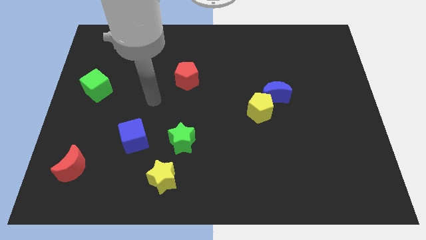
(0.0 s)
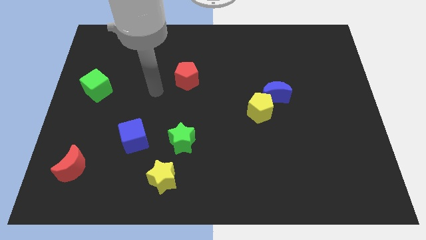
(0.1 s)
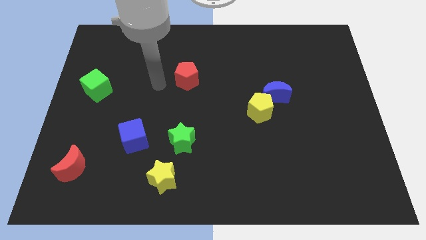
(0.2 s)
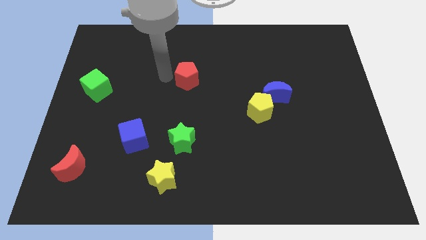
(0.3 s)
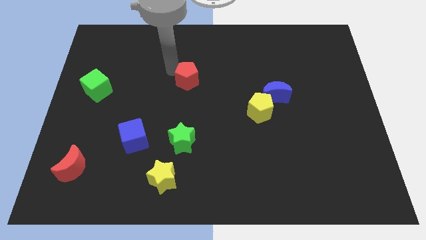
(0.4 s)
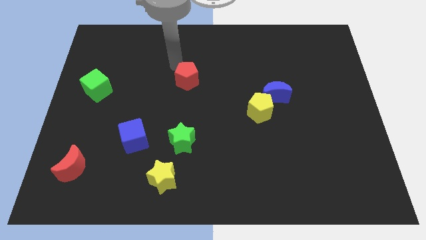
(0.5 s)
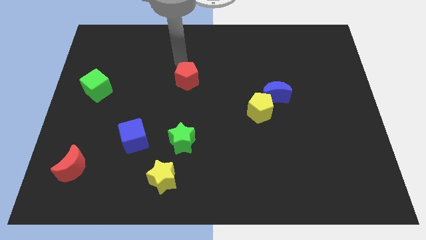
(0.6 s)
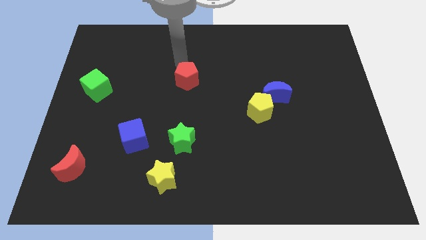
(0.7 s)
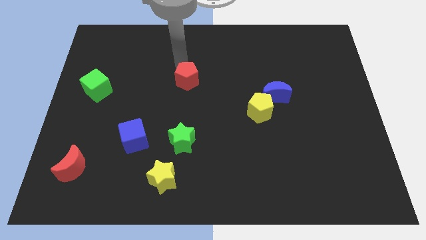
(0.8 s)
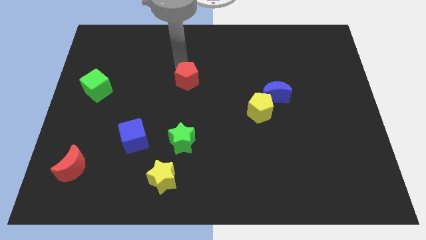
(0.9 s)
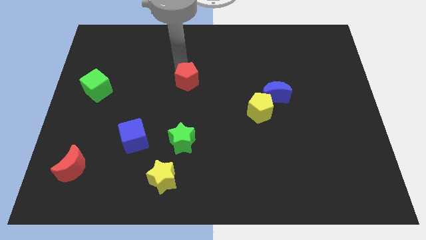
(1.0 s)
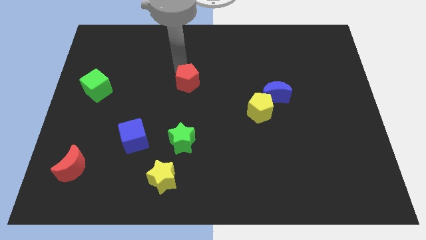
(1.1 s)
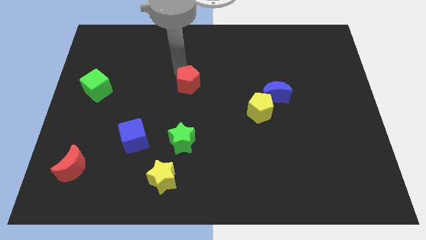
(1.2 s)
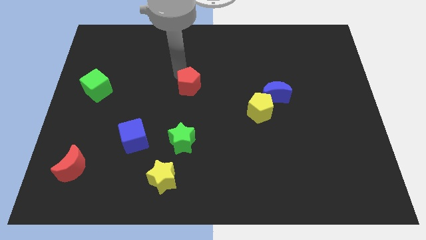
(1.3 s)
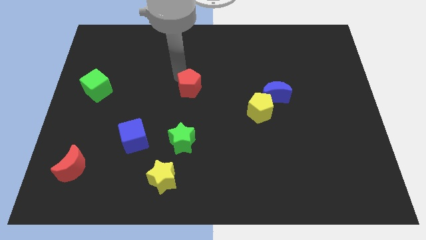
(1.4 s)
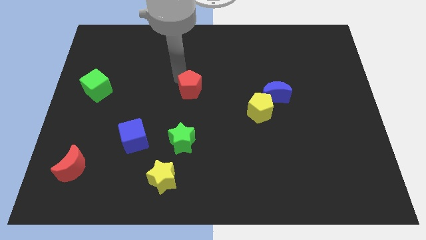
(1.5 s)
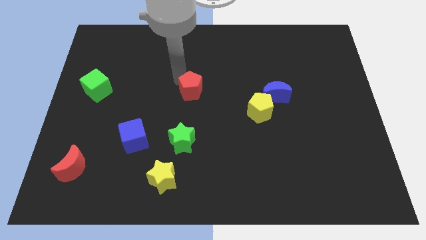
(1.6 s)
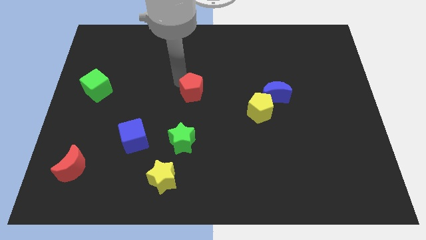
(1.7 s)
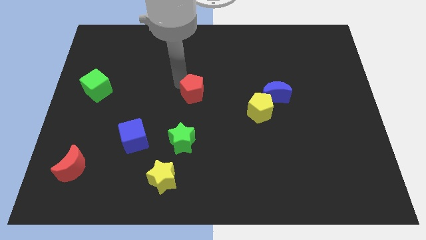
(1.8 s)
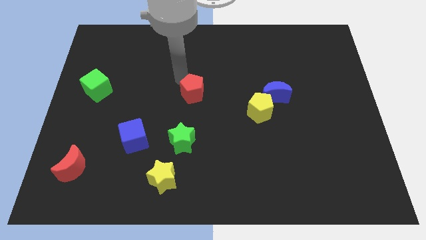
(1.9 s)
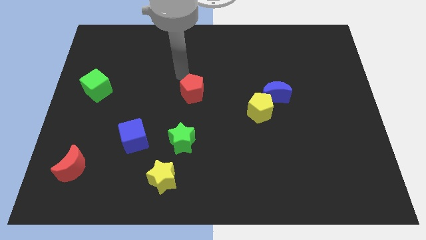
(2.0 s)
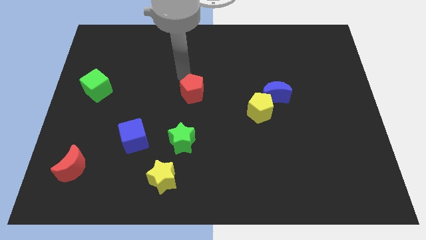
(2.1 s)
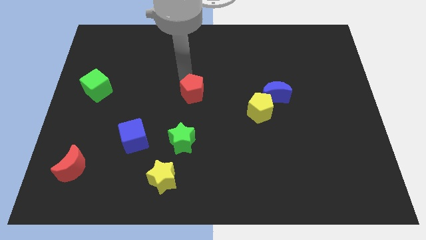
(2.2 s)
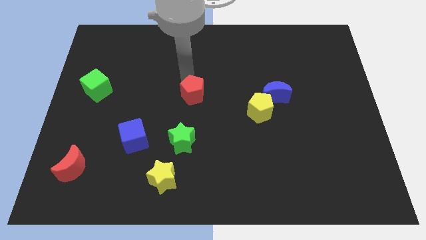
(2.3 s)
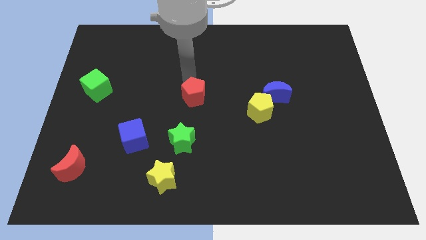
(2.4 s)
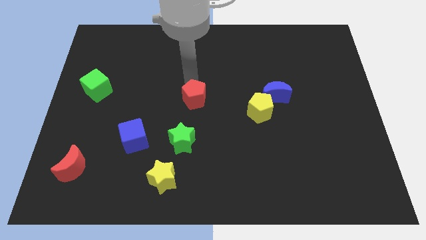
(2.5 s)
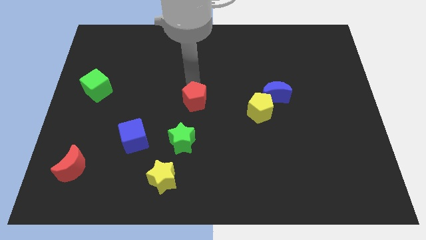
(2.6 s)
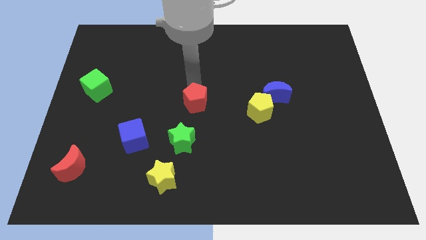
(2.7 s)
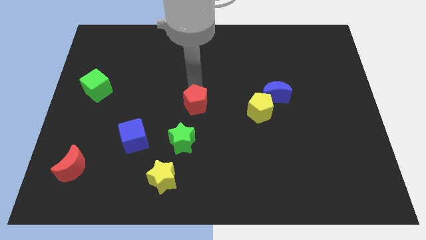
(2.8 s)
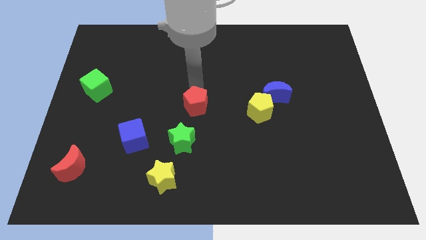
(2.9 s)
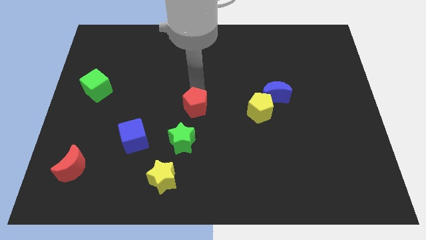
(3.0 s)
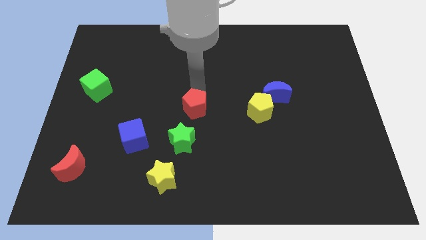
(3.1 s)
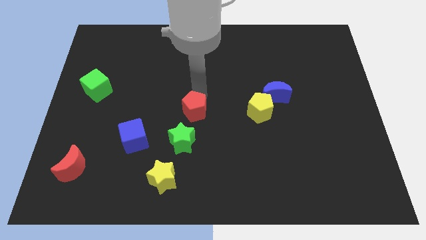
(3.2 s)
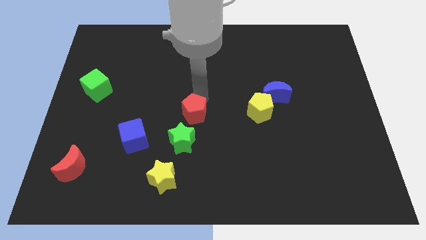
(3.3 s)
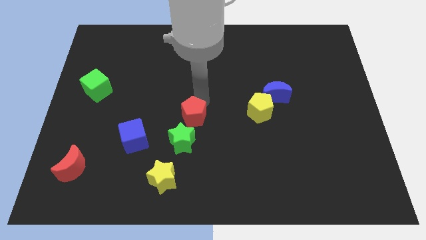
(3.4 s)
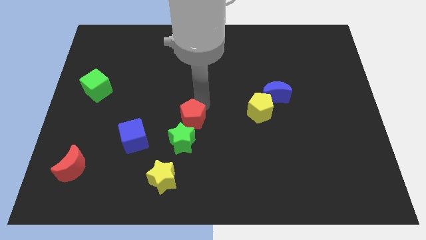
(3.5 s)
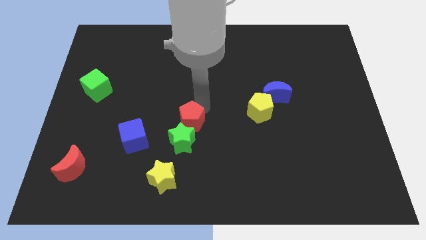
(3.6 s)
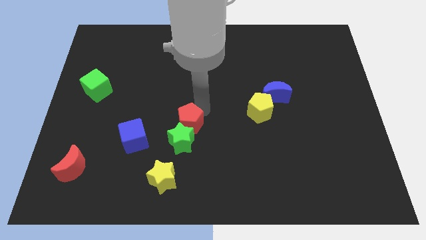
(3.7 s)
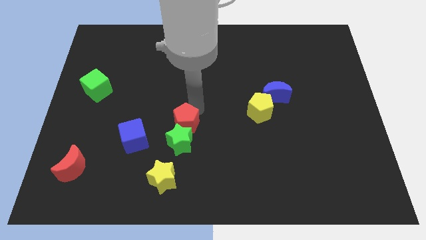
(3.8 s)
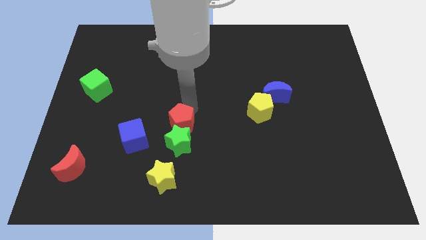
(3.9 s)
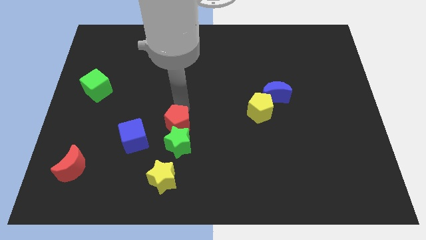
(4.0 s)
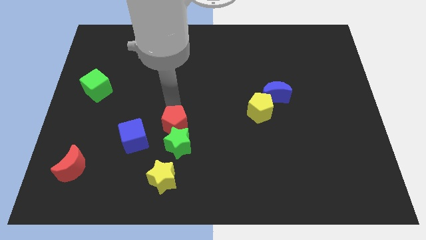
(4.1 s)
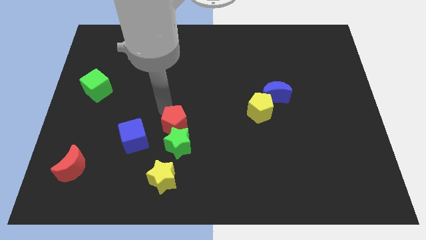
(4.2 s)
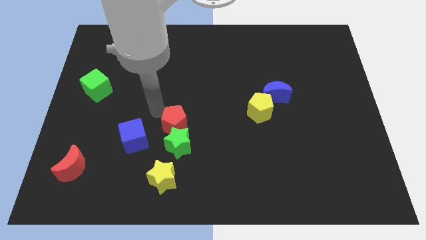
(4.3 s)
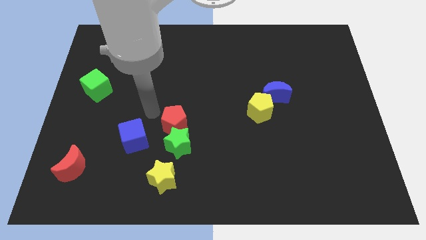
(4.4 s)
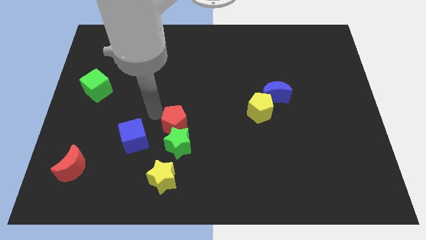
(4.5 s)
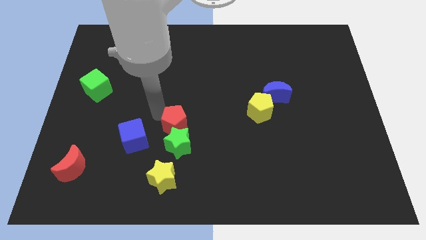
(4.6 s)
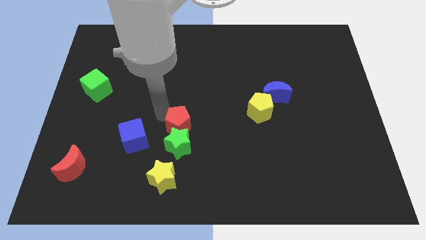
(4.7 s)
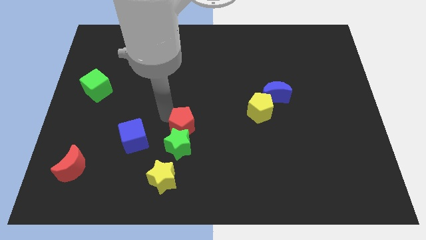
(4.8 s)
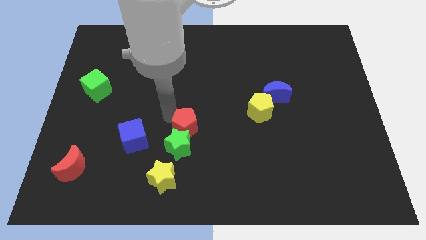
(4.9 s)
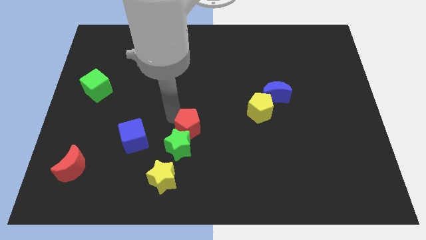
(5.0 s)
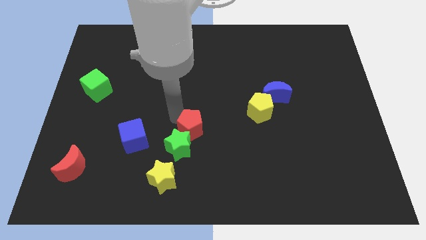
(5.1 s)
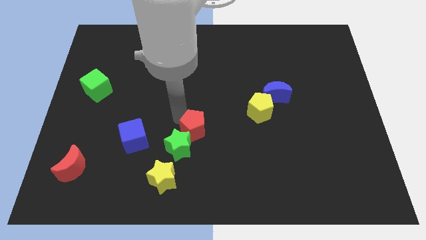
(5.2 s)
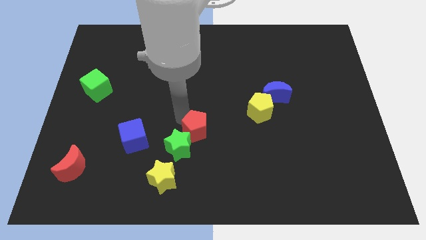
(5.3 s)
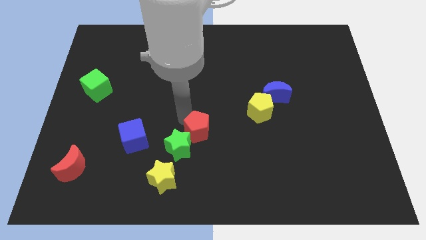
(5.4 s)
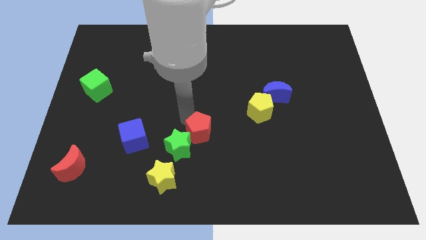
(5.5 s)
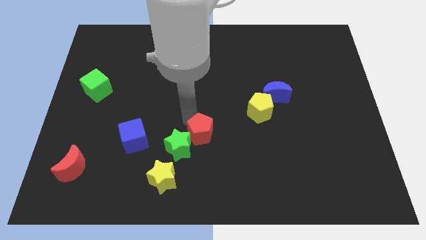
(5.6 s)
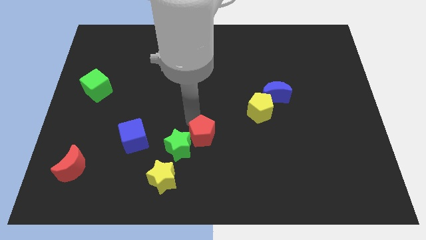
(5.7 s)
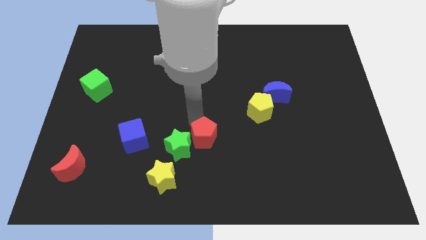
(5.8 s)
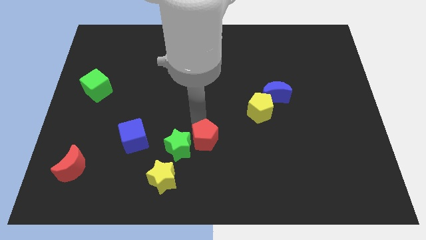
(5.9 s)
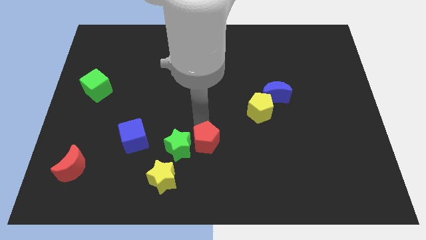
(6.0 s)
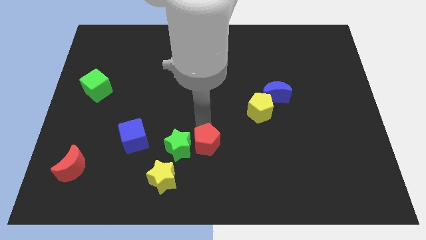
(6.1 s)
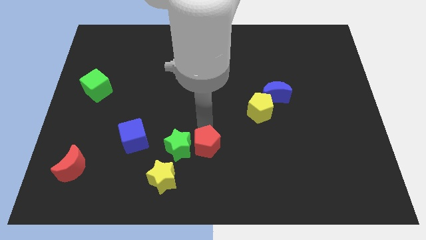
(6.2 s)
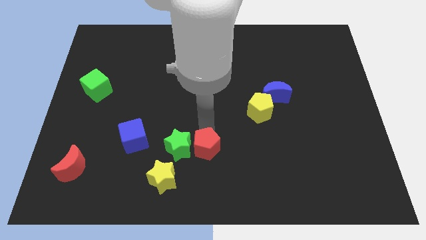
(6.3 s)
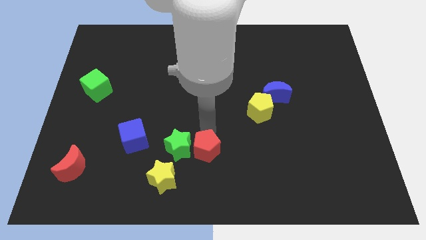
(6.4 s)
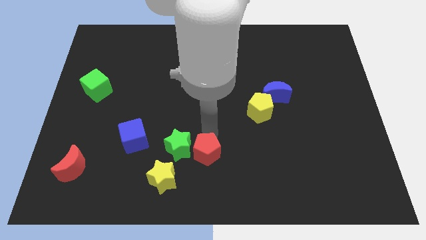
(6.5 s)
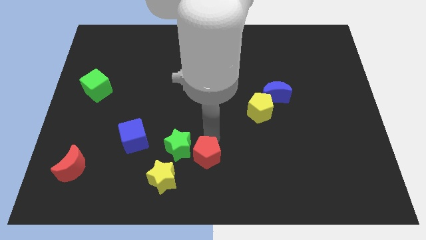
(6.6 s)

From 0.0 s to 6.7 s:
put the red pentagon to the bottom side

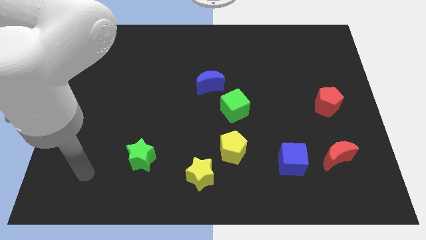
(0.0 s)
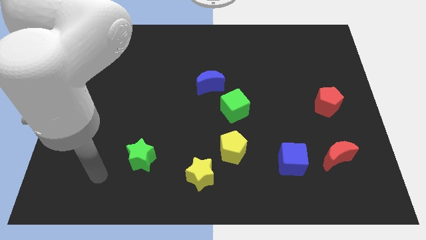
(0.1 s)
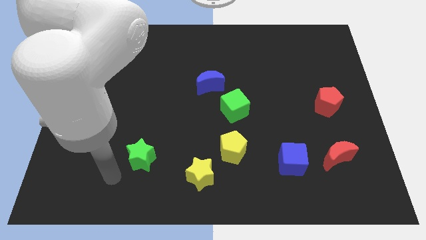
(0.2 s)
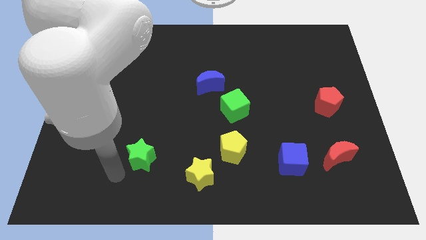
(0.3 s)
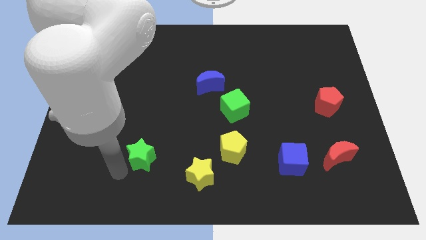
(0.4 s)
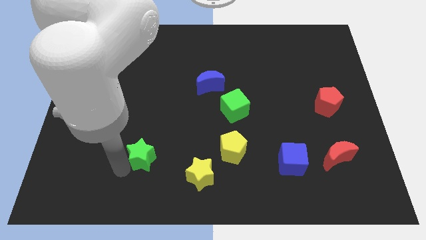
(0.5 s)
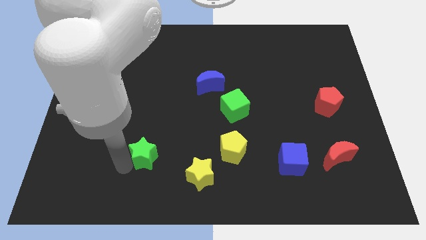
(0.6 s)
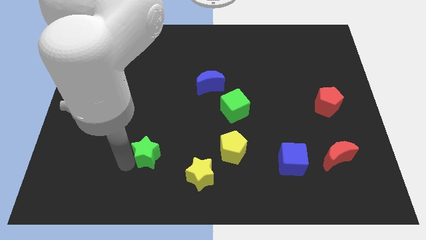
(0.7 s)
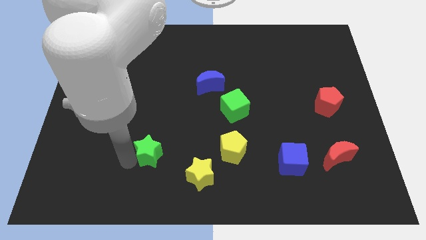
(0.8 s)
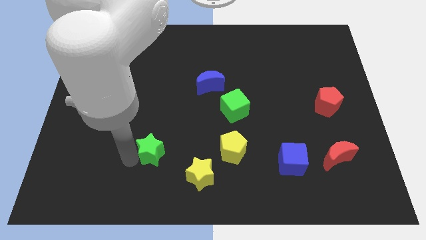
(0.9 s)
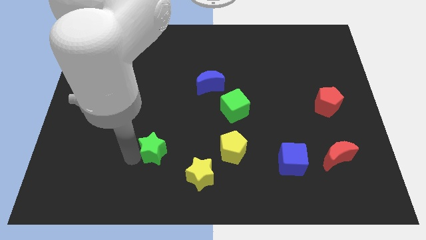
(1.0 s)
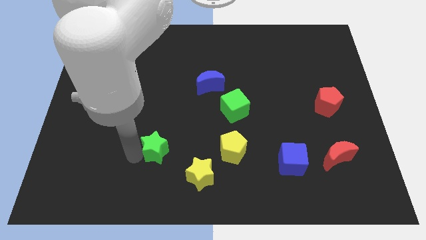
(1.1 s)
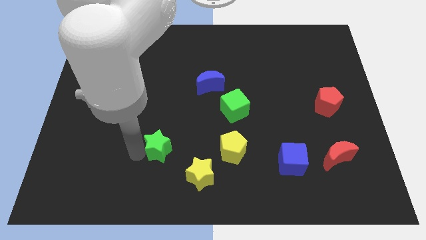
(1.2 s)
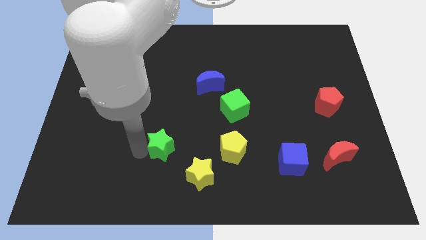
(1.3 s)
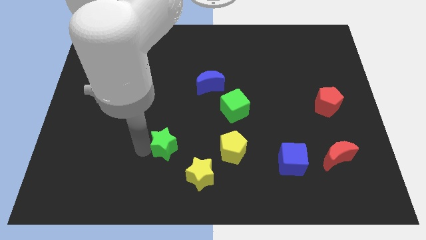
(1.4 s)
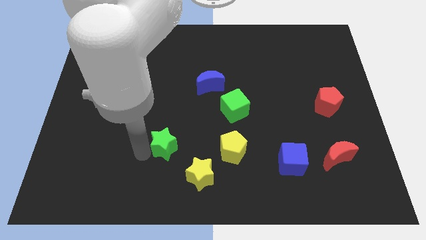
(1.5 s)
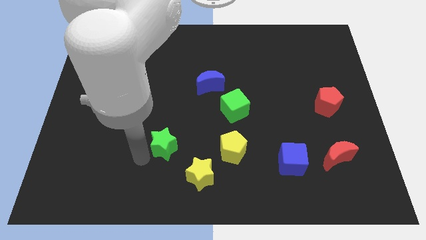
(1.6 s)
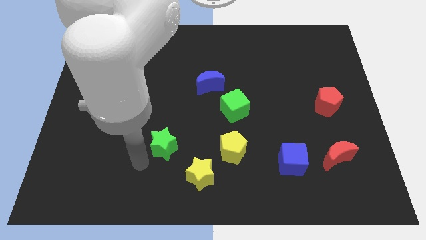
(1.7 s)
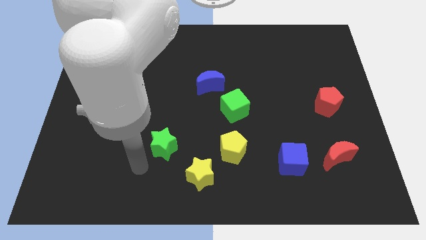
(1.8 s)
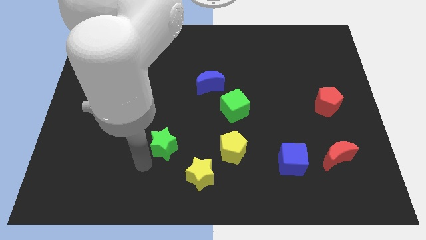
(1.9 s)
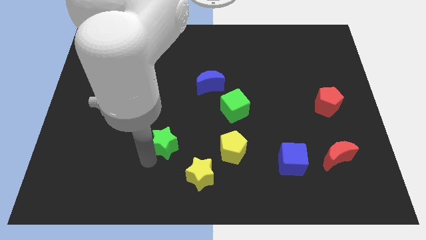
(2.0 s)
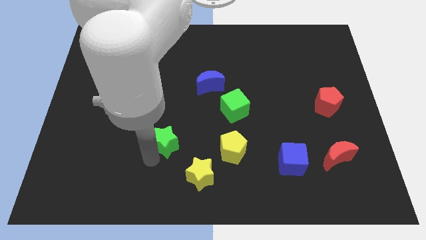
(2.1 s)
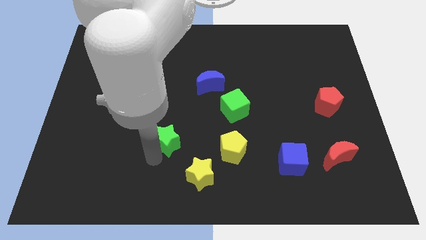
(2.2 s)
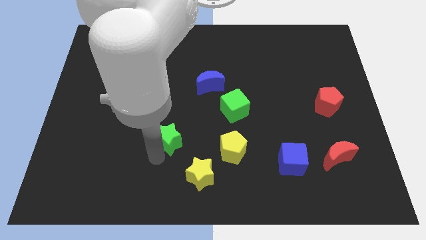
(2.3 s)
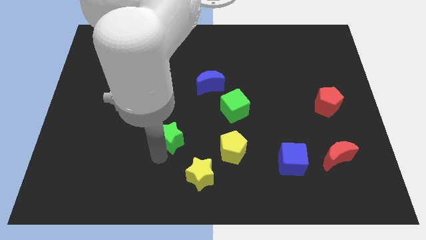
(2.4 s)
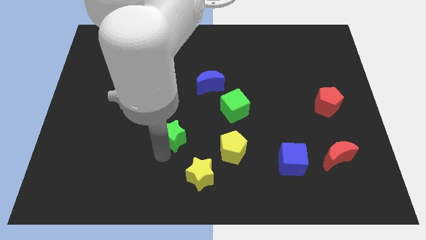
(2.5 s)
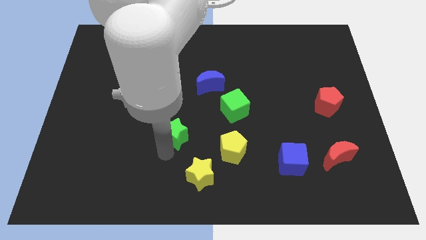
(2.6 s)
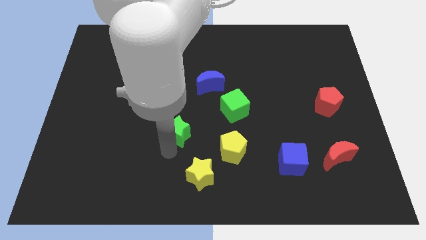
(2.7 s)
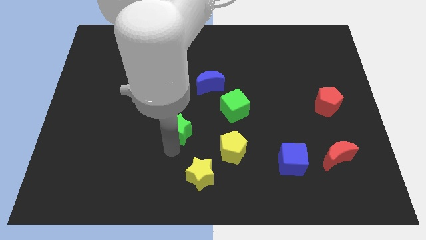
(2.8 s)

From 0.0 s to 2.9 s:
move the green star to the middle of the board
